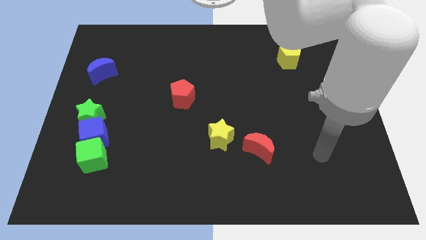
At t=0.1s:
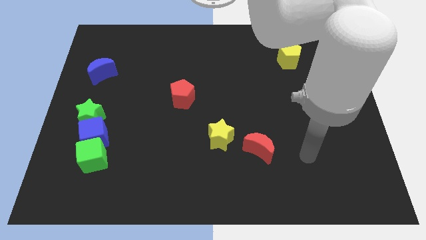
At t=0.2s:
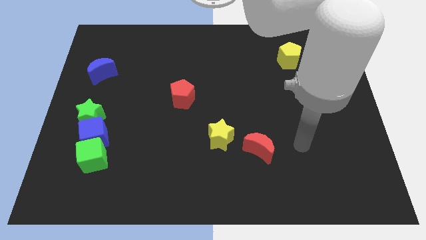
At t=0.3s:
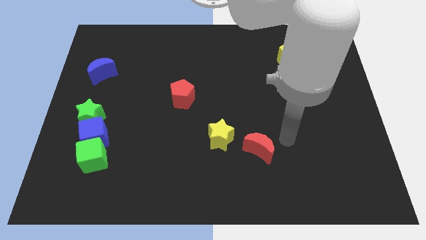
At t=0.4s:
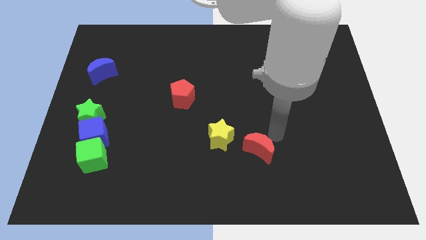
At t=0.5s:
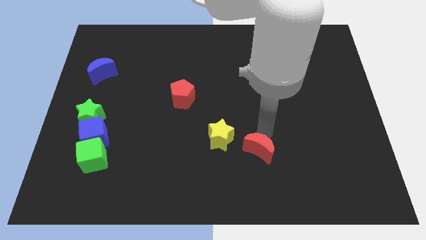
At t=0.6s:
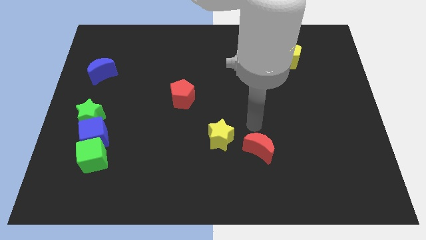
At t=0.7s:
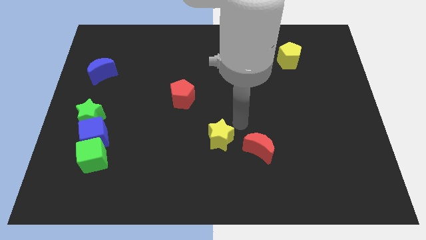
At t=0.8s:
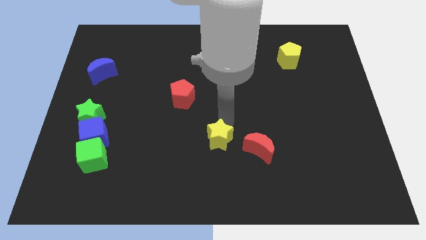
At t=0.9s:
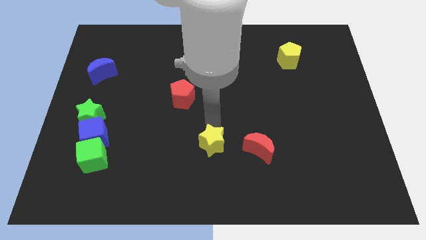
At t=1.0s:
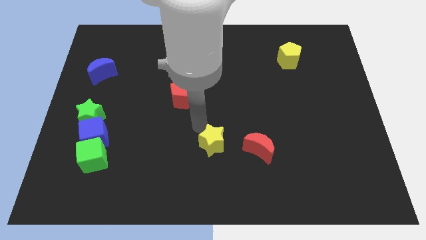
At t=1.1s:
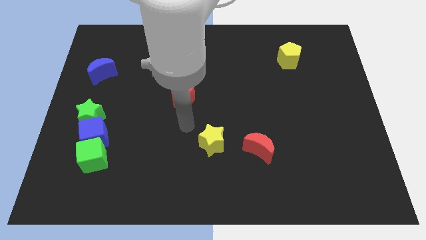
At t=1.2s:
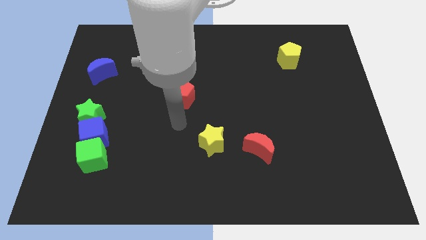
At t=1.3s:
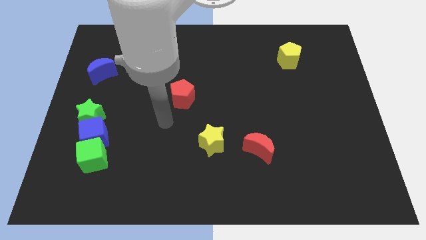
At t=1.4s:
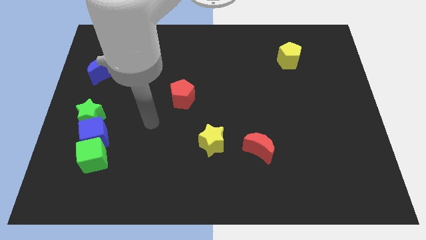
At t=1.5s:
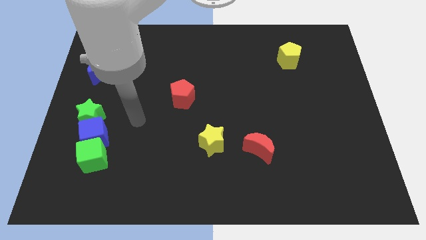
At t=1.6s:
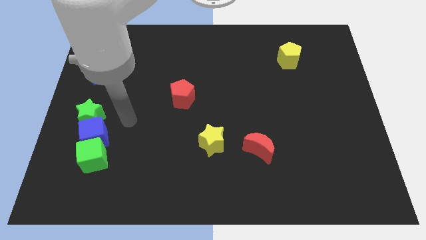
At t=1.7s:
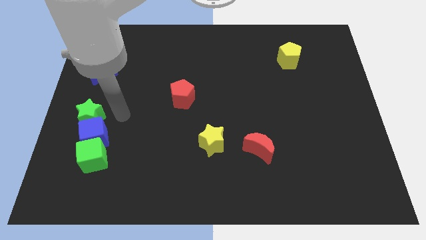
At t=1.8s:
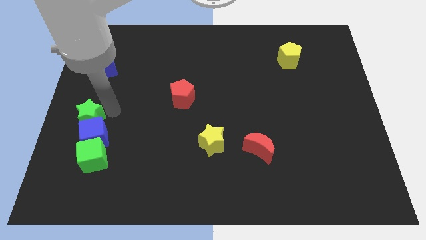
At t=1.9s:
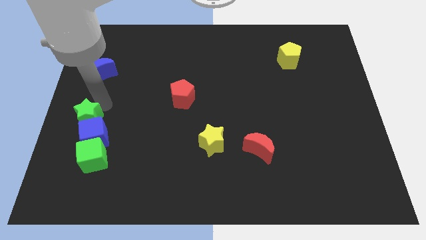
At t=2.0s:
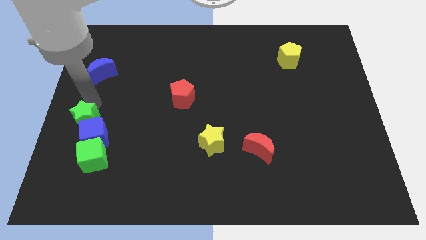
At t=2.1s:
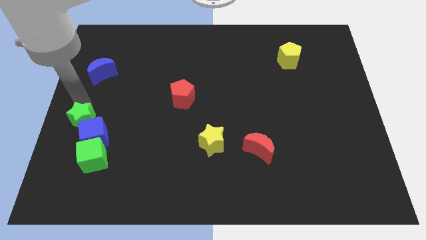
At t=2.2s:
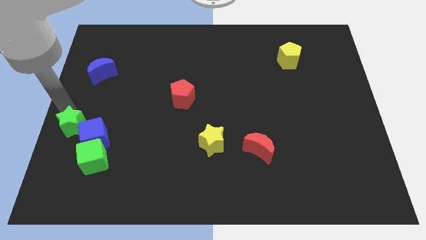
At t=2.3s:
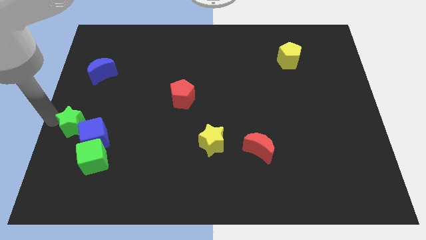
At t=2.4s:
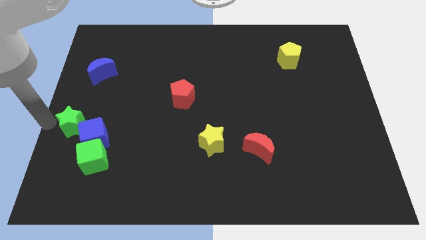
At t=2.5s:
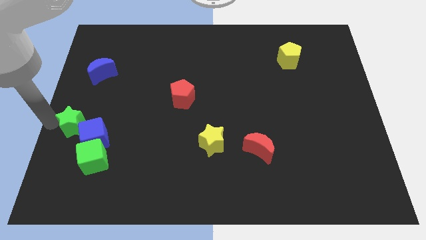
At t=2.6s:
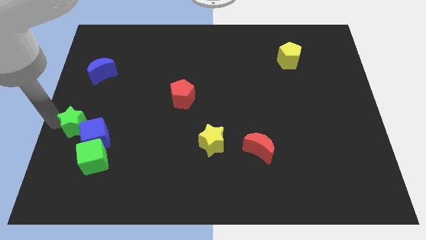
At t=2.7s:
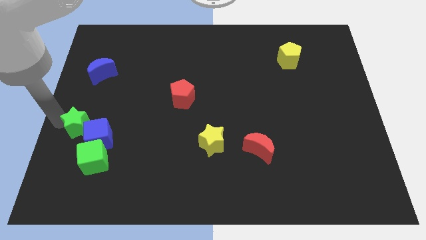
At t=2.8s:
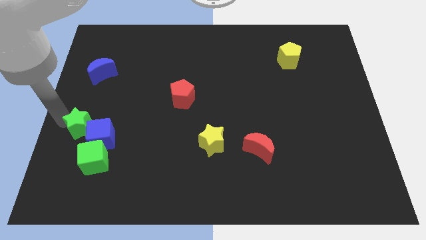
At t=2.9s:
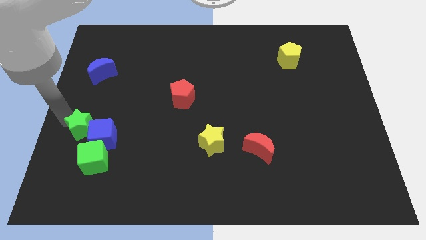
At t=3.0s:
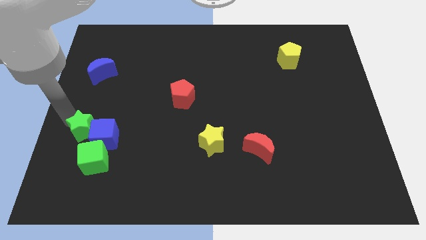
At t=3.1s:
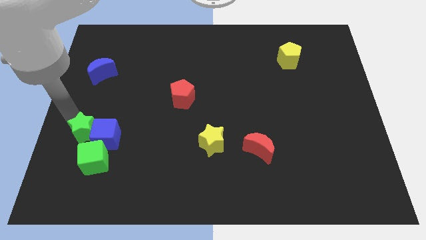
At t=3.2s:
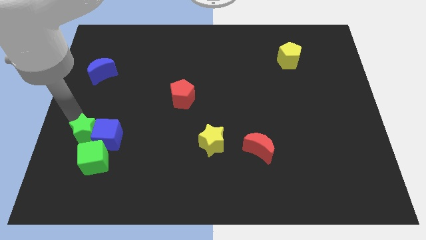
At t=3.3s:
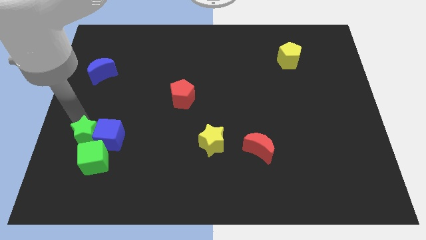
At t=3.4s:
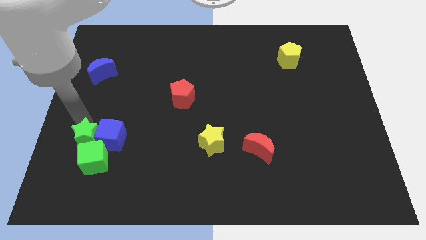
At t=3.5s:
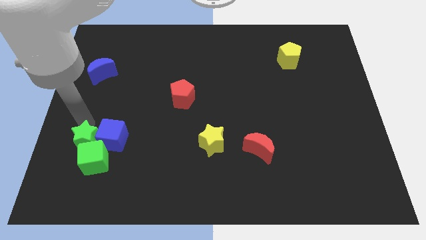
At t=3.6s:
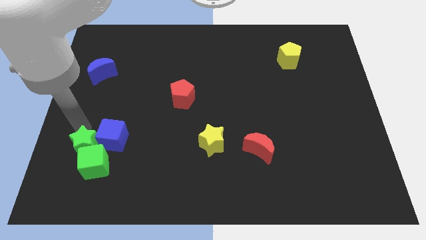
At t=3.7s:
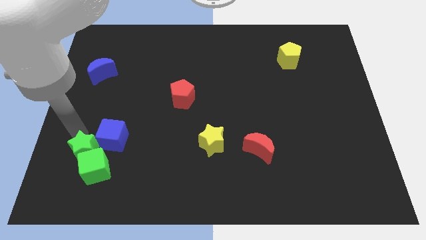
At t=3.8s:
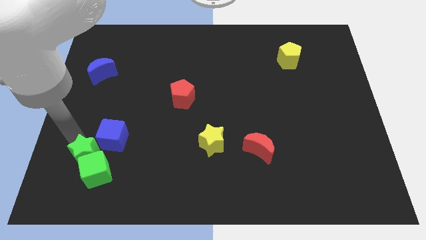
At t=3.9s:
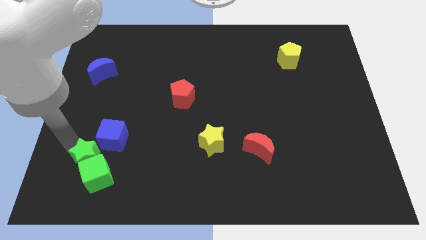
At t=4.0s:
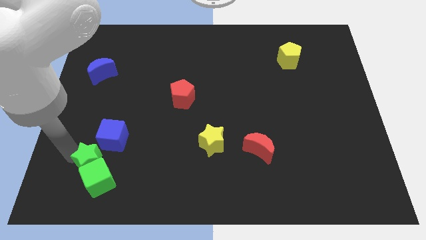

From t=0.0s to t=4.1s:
push the green star diagonally downwards and right slightly

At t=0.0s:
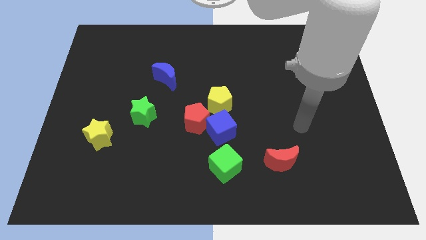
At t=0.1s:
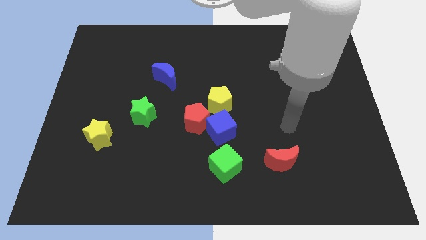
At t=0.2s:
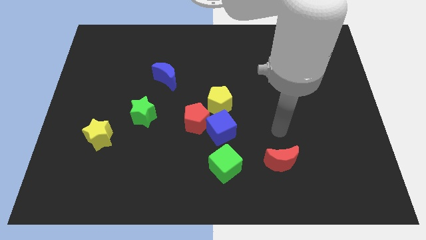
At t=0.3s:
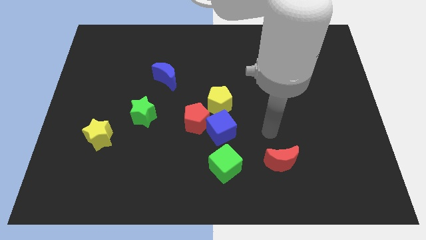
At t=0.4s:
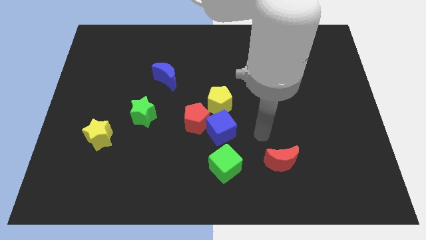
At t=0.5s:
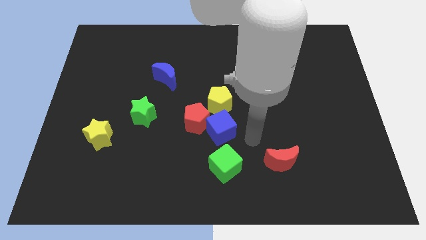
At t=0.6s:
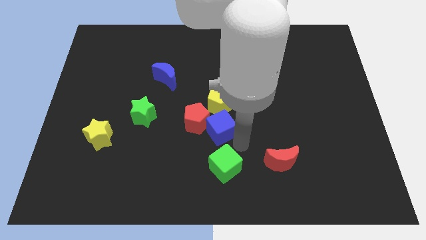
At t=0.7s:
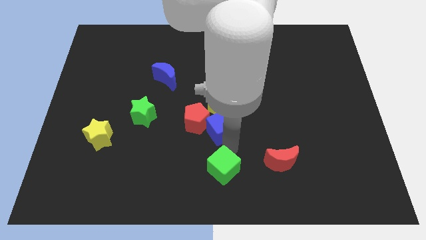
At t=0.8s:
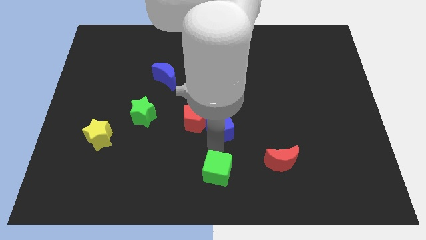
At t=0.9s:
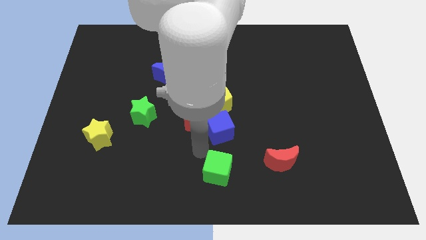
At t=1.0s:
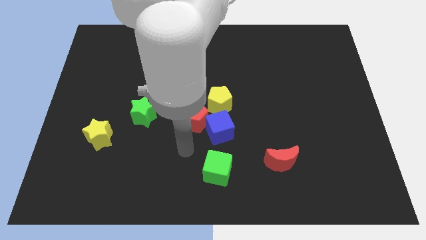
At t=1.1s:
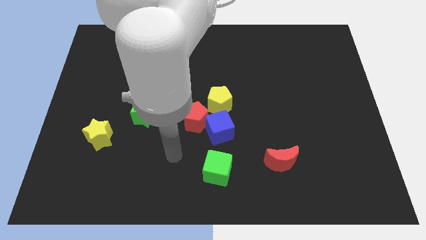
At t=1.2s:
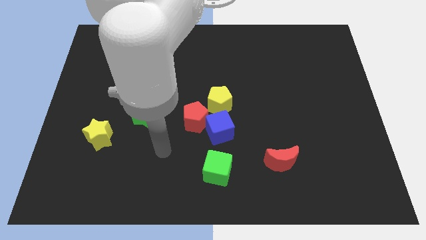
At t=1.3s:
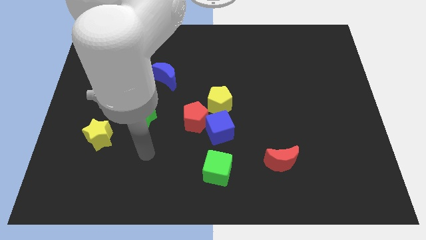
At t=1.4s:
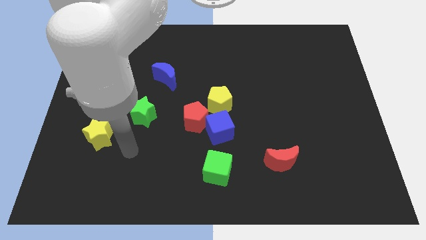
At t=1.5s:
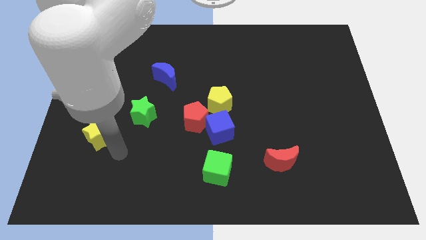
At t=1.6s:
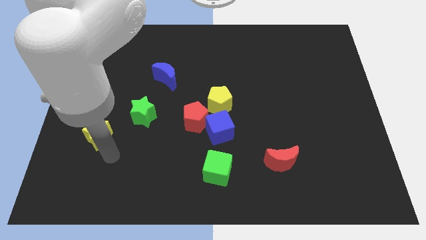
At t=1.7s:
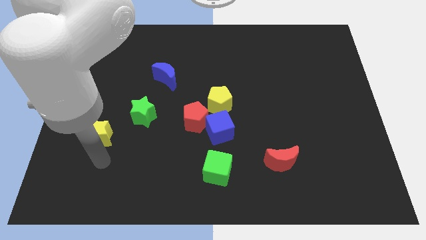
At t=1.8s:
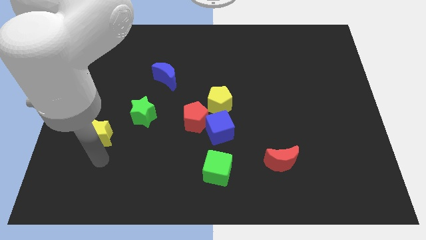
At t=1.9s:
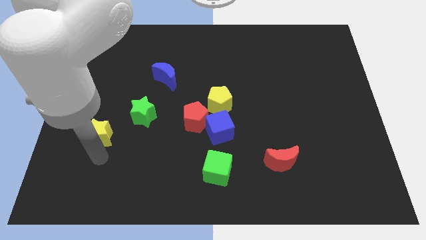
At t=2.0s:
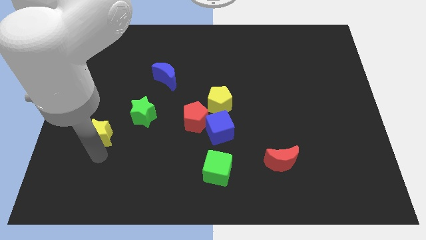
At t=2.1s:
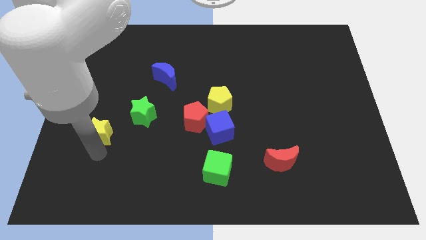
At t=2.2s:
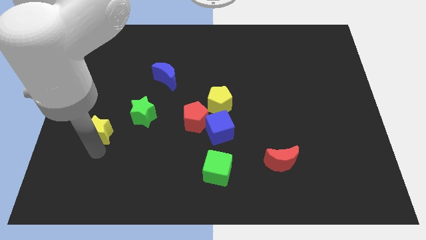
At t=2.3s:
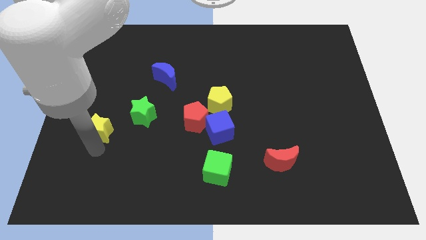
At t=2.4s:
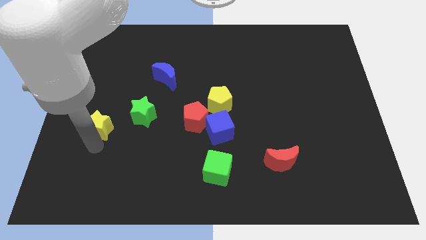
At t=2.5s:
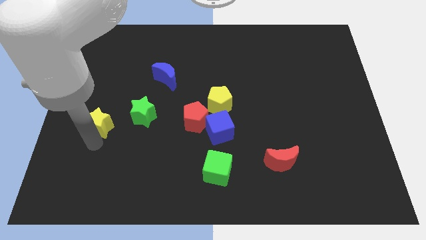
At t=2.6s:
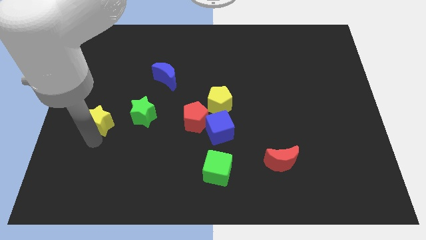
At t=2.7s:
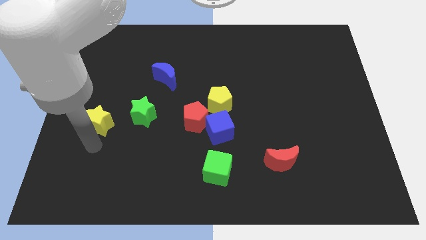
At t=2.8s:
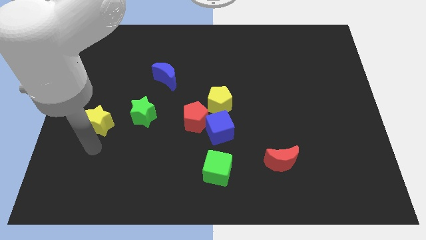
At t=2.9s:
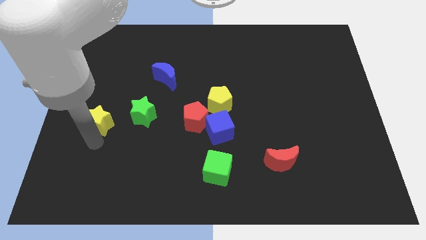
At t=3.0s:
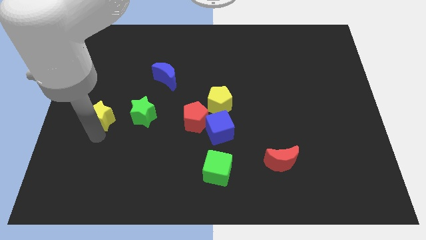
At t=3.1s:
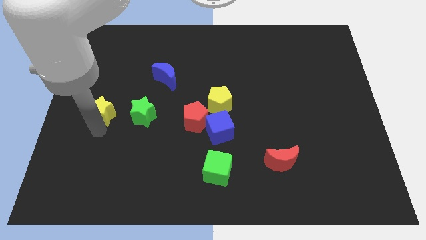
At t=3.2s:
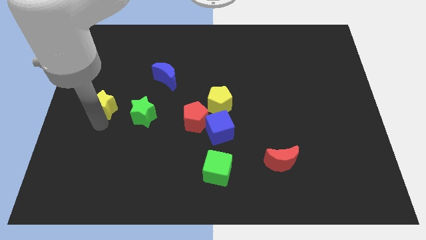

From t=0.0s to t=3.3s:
move the yellow star a bit up

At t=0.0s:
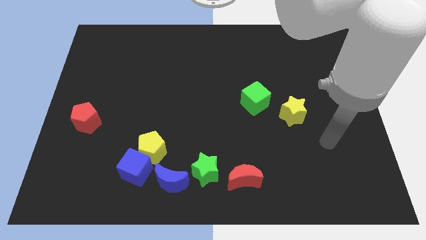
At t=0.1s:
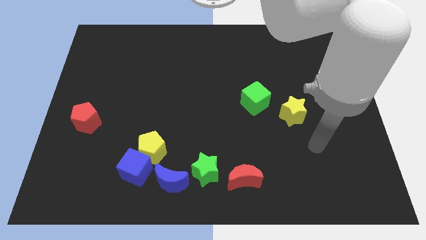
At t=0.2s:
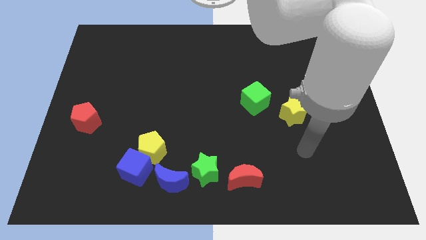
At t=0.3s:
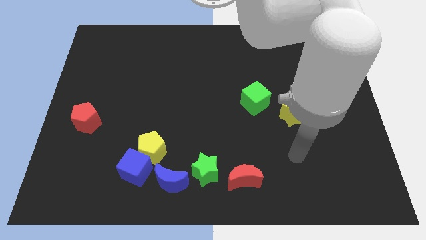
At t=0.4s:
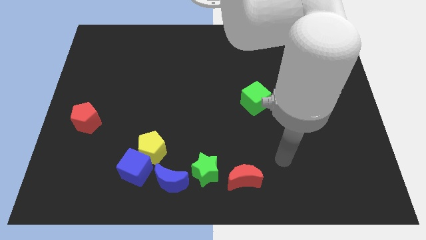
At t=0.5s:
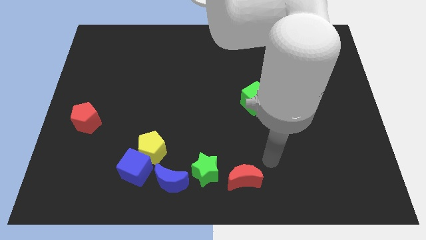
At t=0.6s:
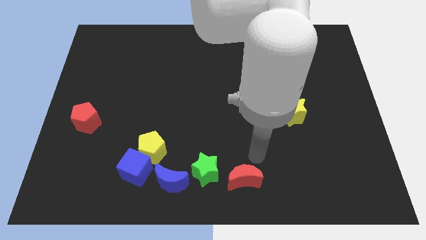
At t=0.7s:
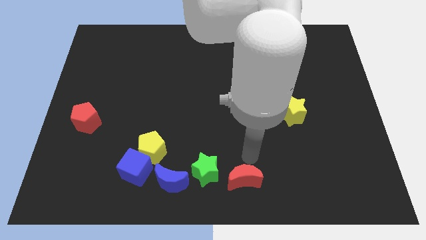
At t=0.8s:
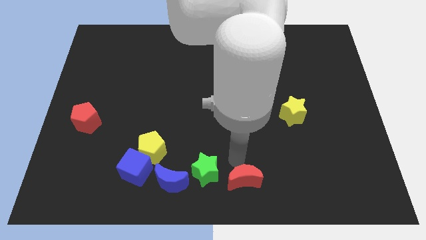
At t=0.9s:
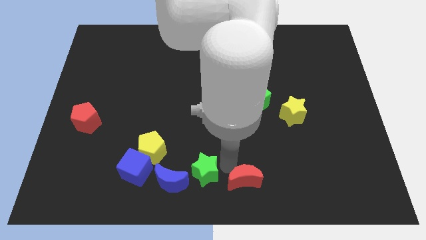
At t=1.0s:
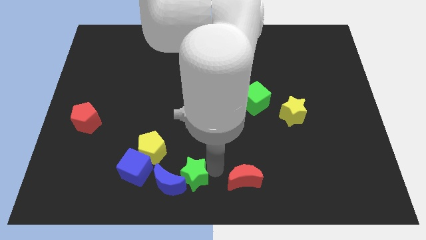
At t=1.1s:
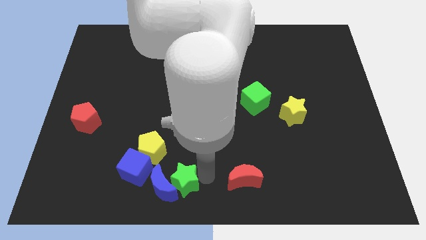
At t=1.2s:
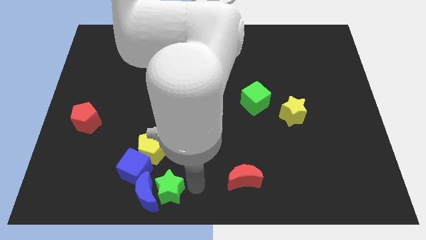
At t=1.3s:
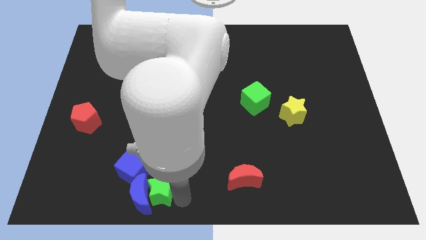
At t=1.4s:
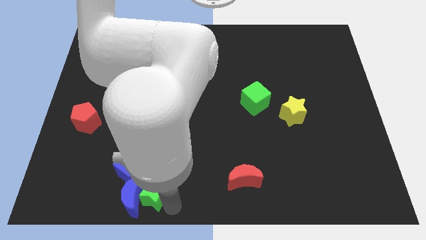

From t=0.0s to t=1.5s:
move the blue moon to the left a bit
